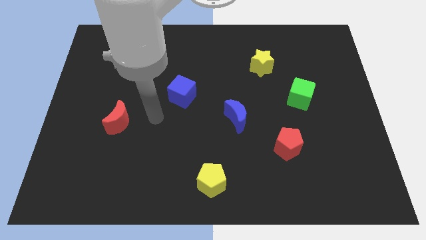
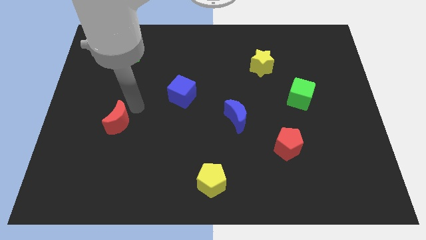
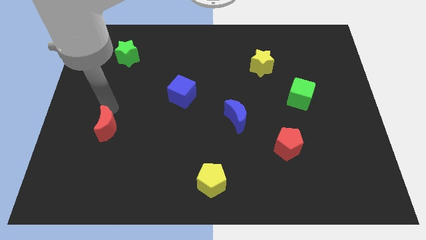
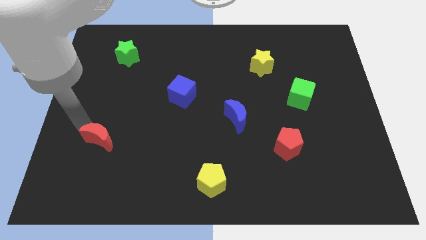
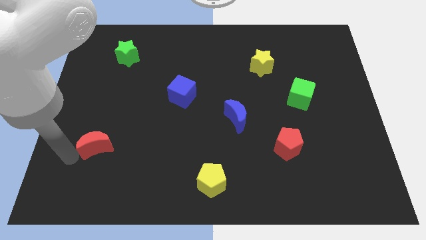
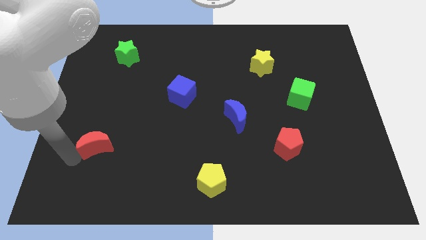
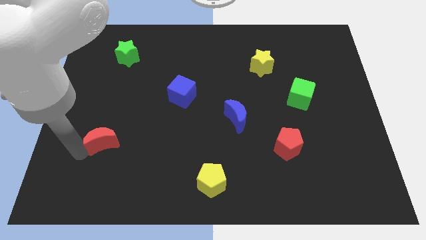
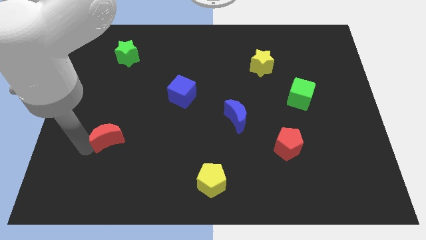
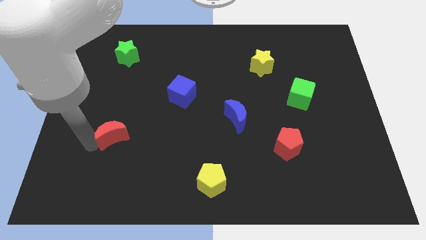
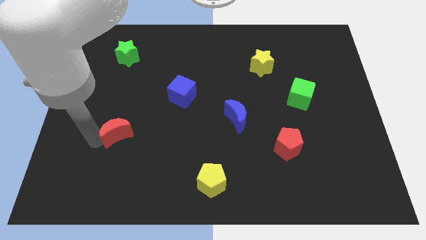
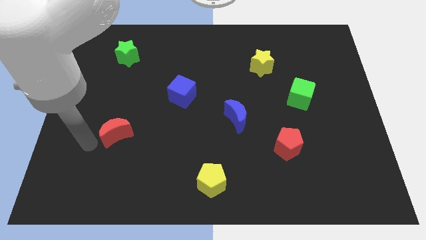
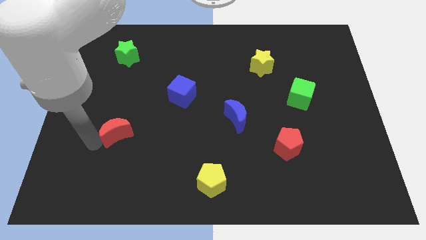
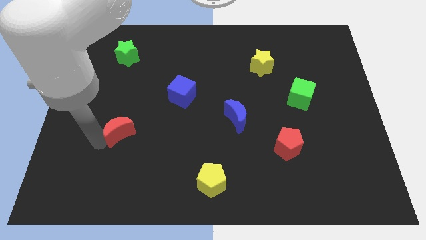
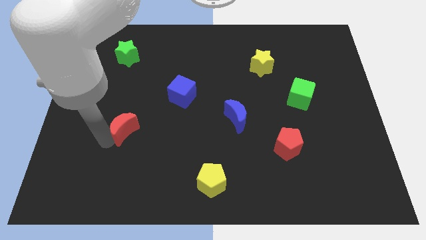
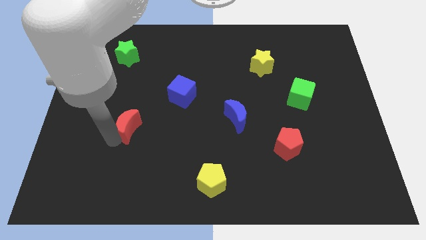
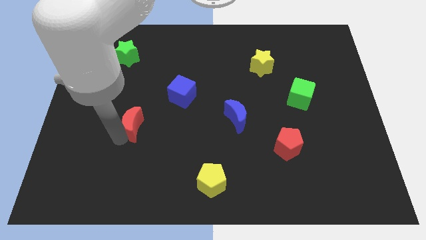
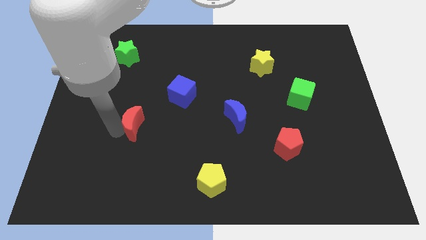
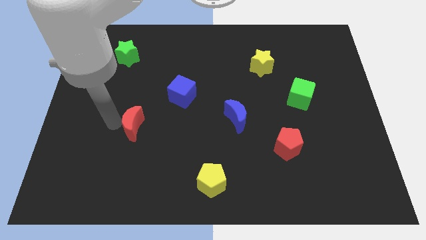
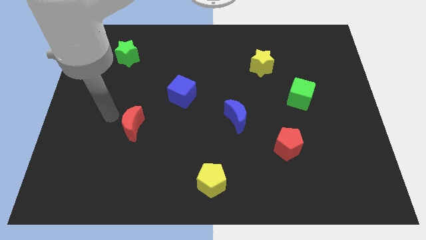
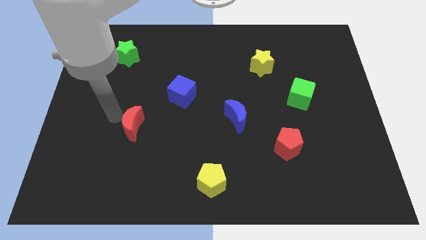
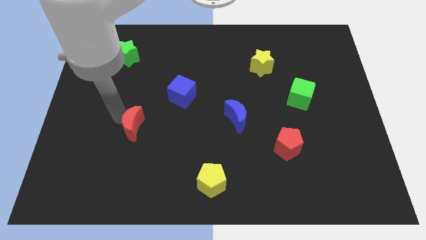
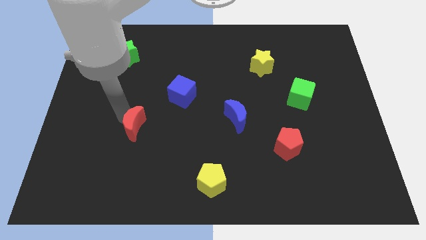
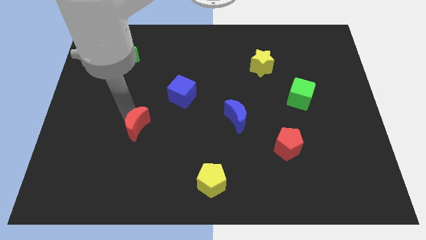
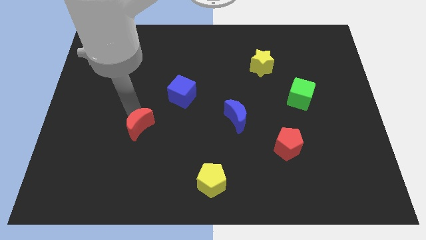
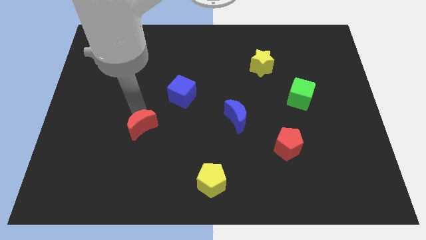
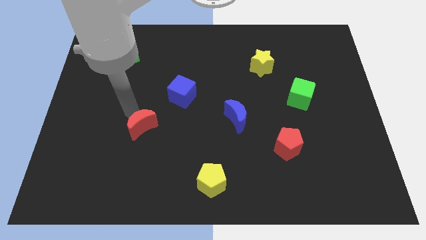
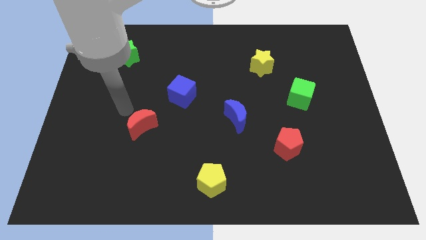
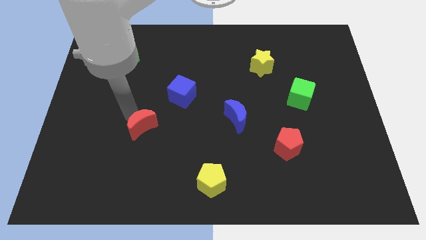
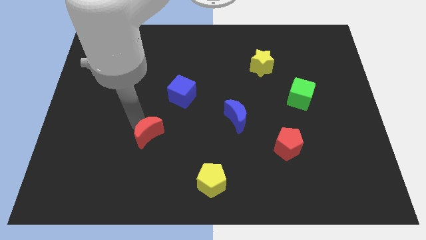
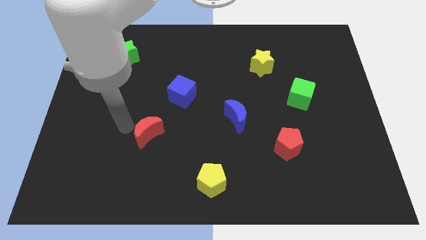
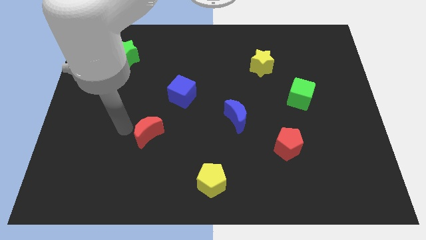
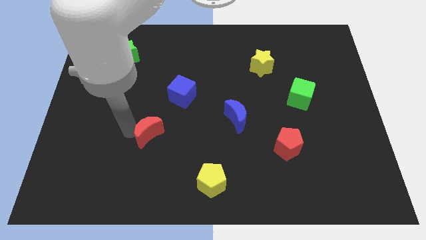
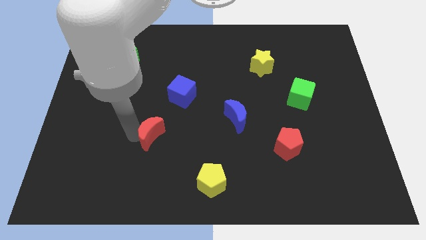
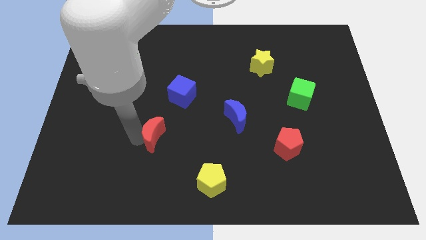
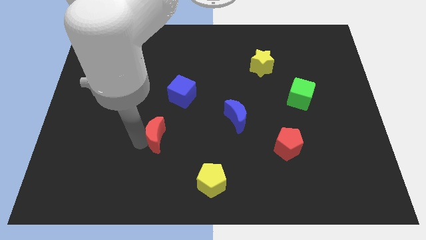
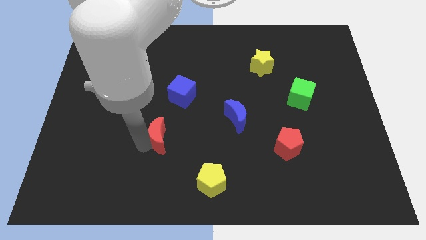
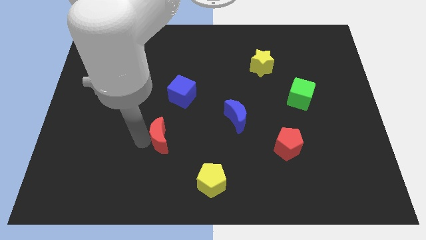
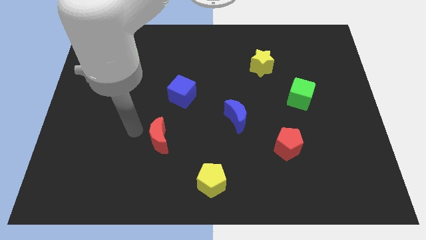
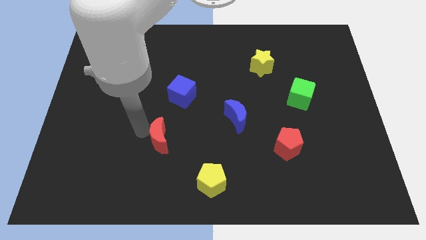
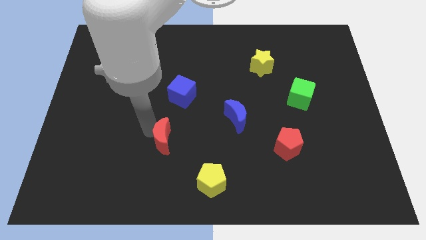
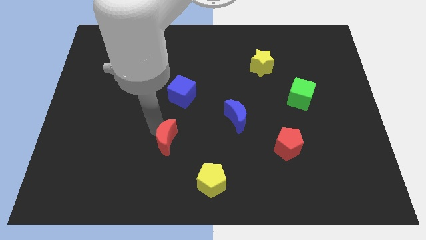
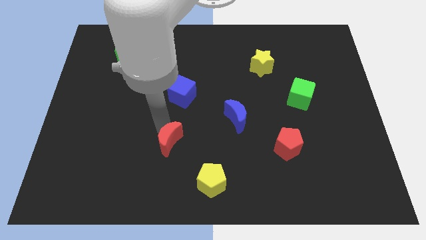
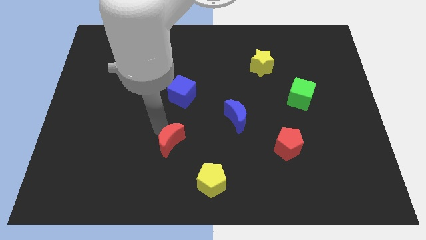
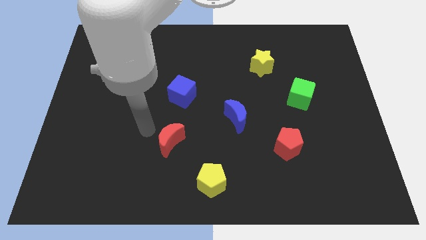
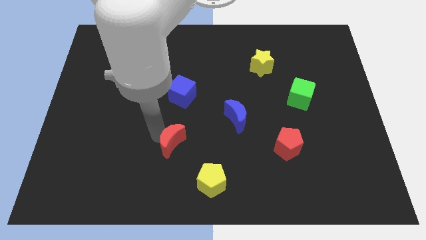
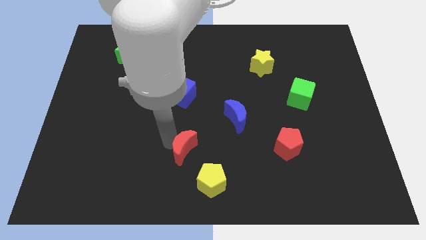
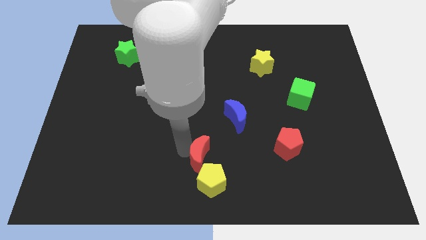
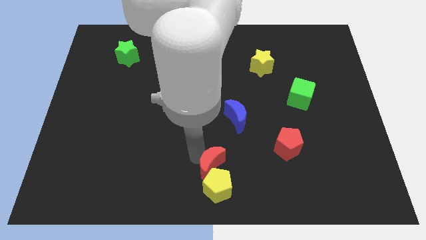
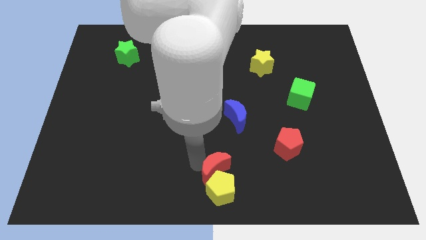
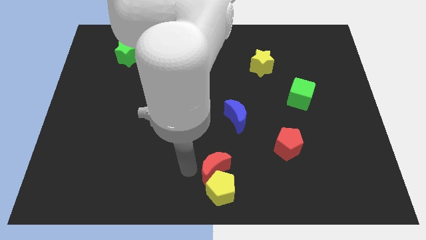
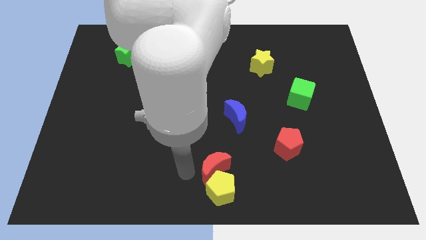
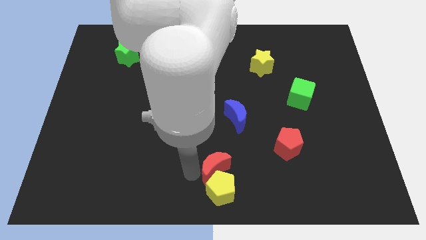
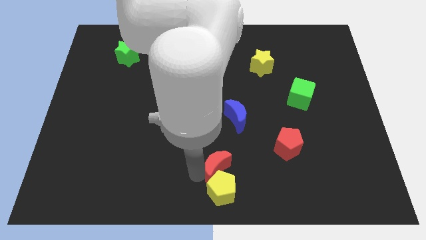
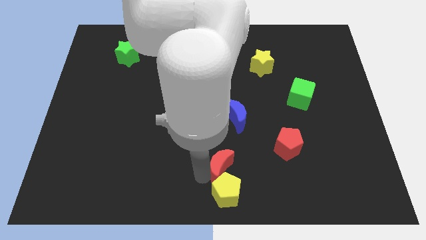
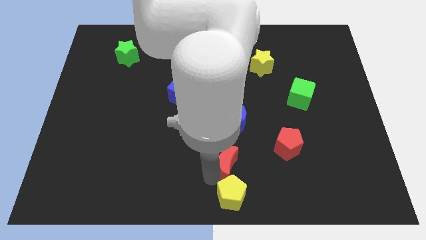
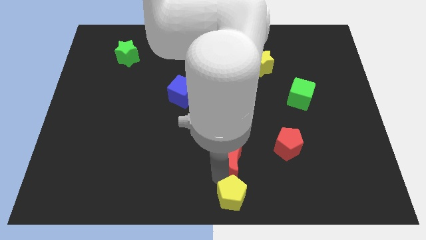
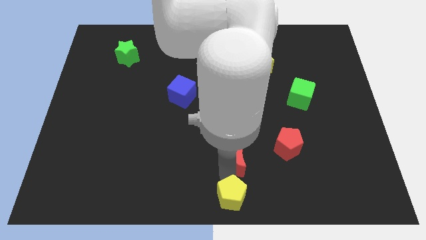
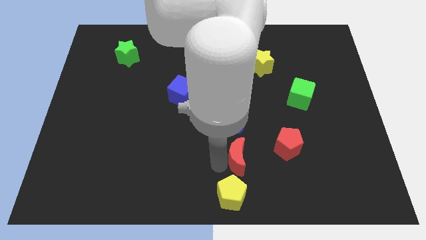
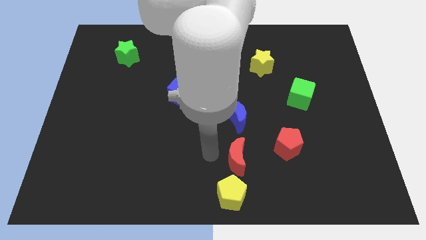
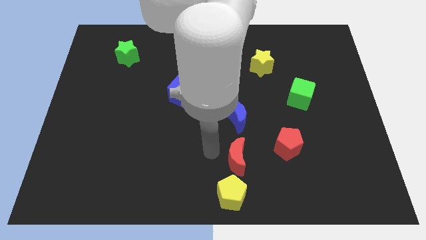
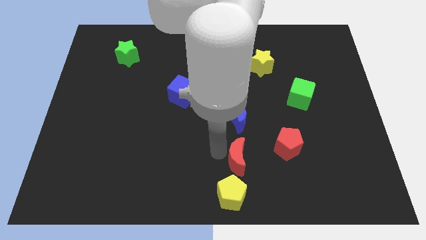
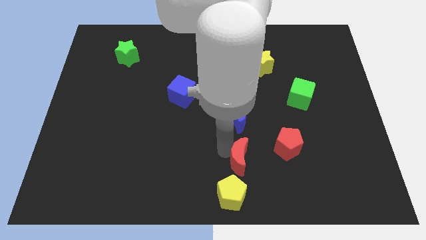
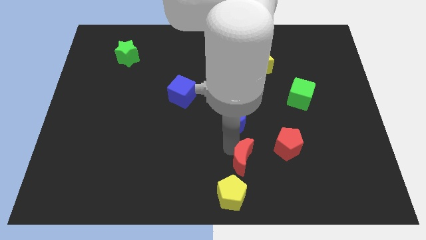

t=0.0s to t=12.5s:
push the red moon diagonally down and to the left of the red pentagon

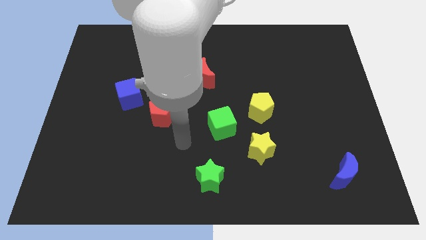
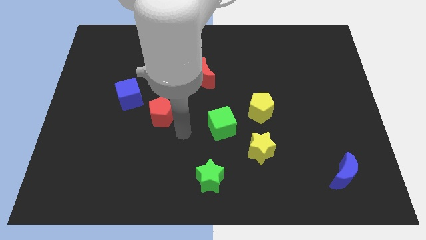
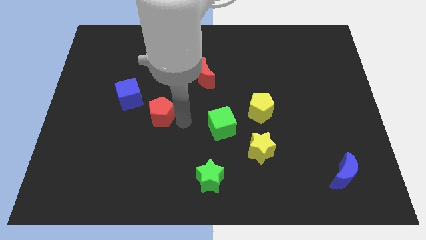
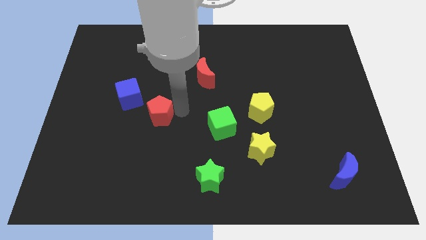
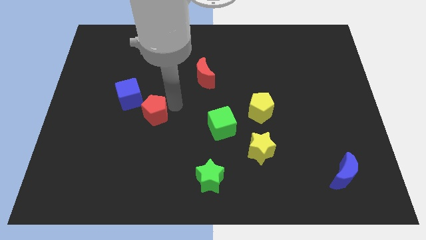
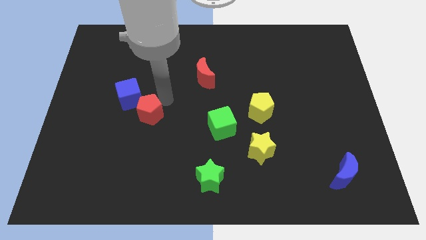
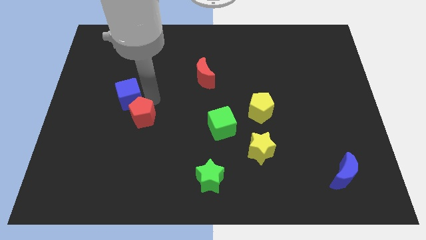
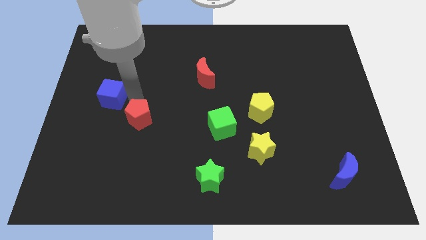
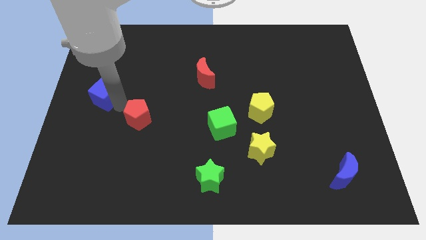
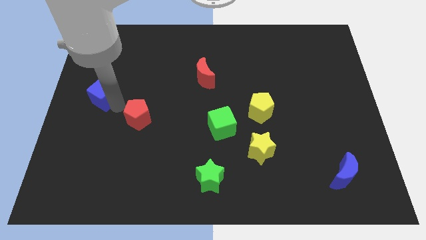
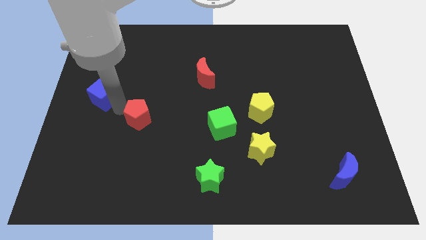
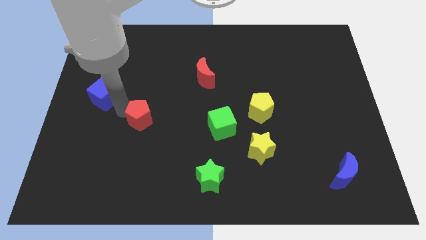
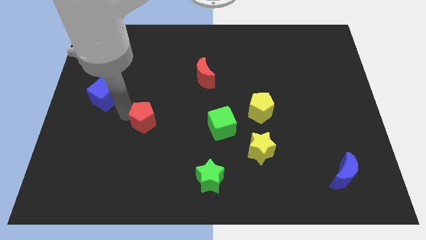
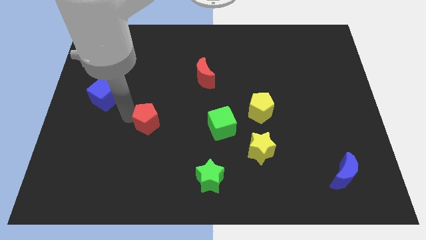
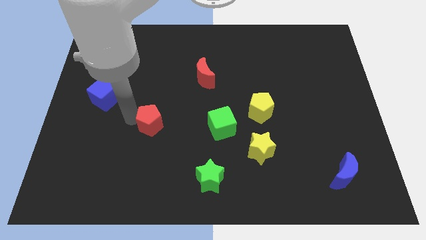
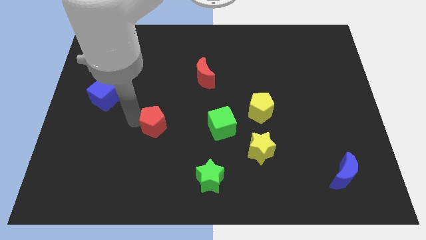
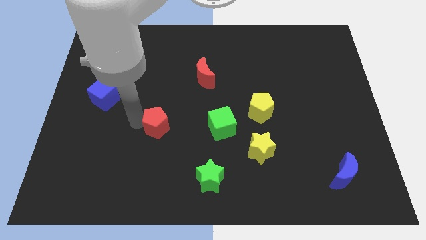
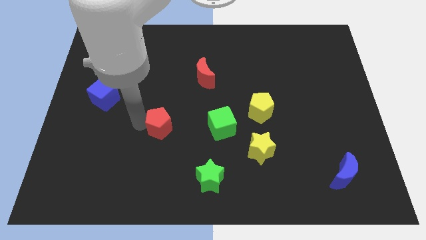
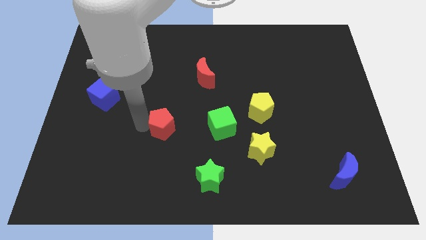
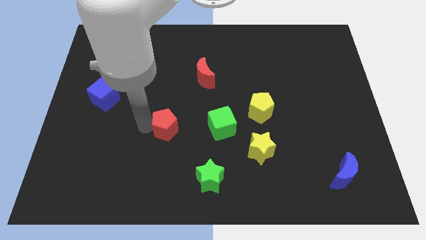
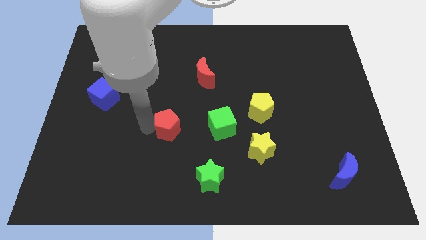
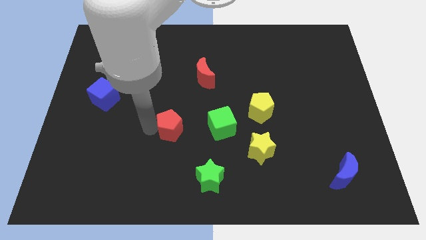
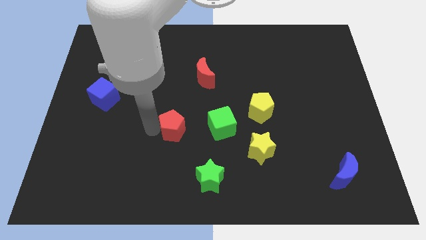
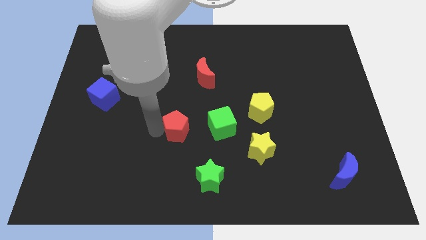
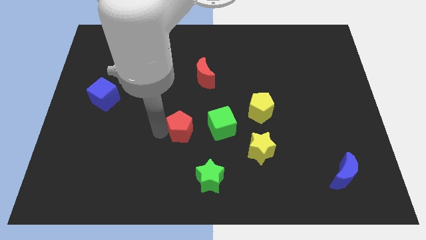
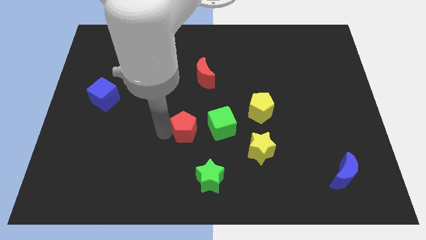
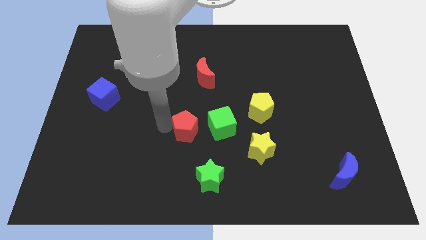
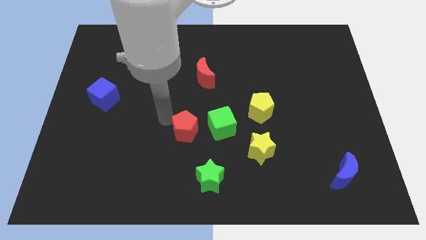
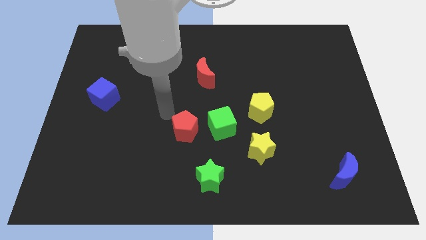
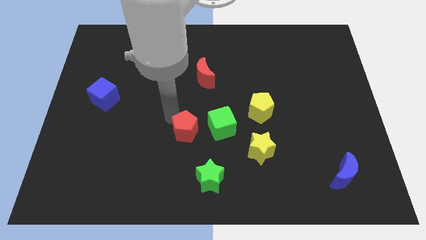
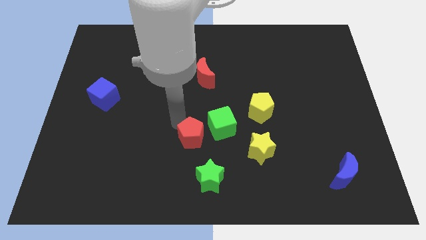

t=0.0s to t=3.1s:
slide the red pentagon left of the yellow star
